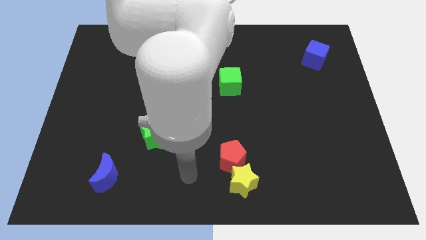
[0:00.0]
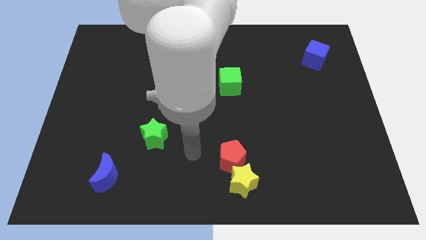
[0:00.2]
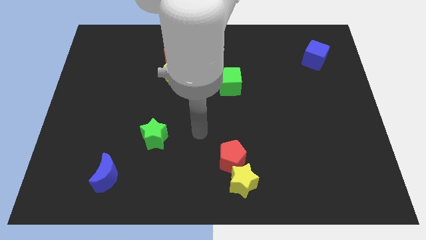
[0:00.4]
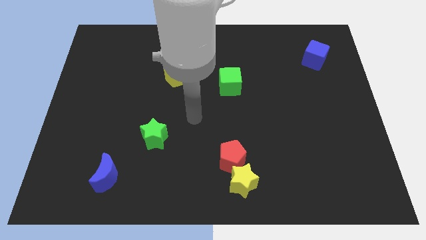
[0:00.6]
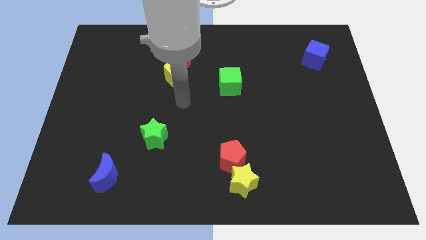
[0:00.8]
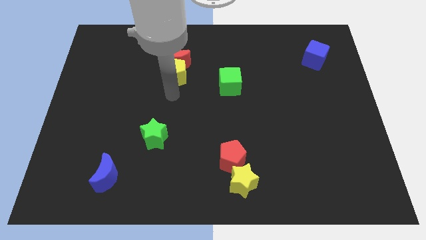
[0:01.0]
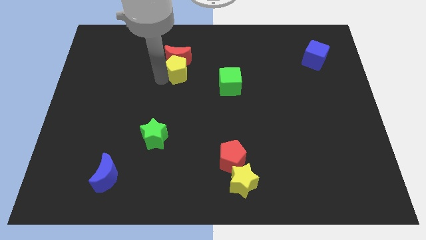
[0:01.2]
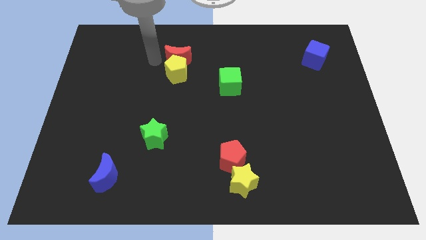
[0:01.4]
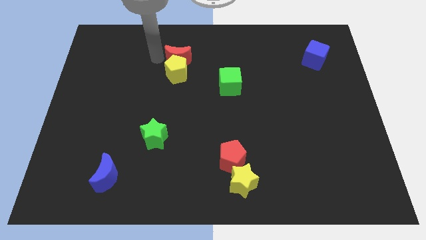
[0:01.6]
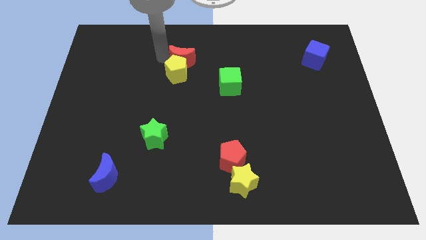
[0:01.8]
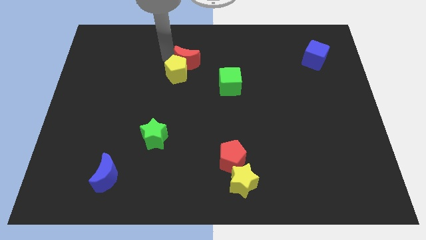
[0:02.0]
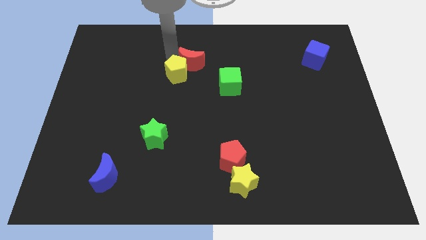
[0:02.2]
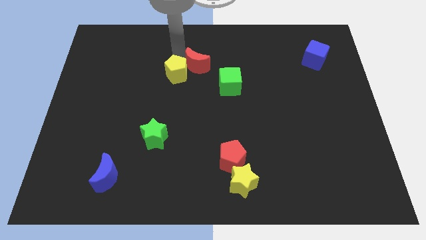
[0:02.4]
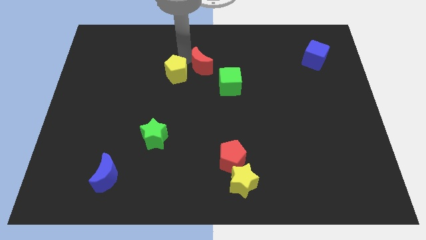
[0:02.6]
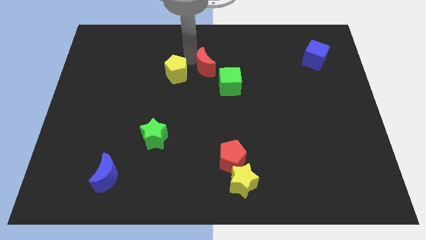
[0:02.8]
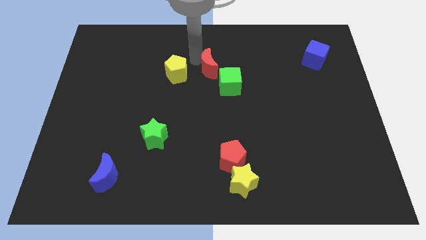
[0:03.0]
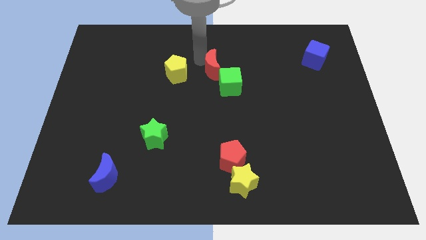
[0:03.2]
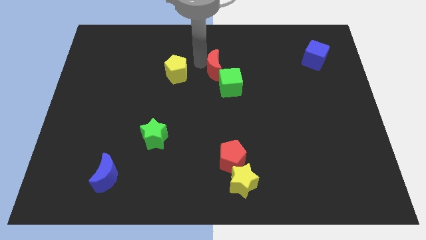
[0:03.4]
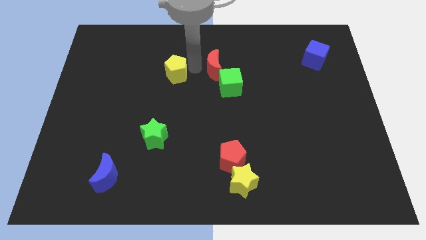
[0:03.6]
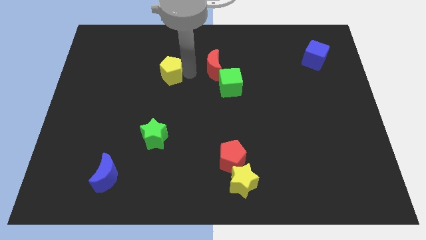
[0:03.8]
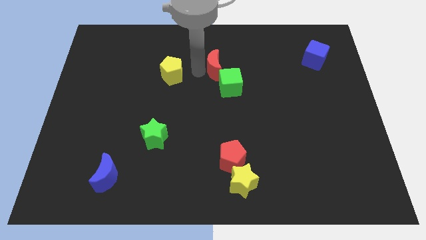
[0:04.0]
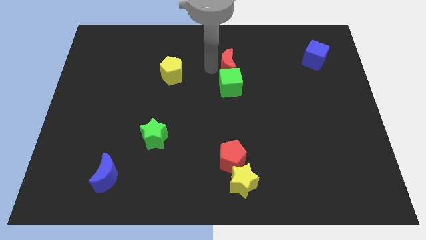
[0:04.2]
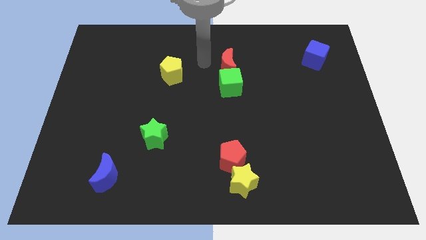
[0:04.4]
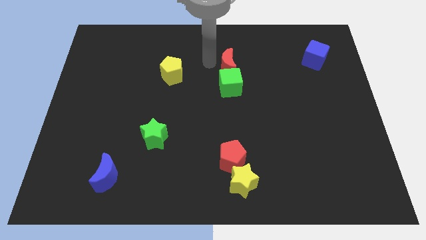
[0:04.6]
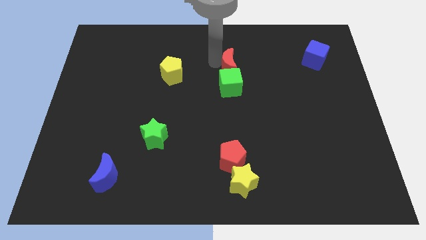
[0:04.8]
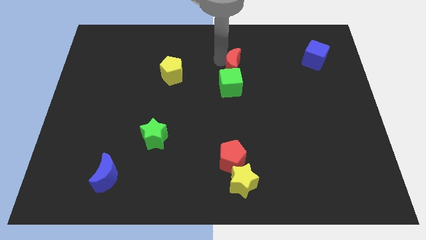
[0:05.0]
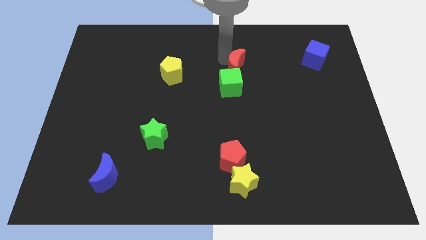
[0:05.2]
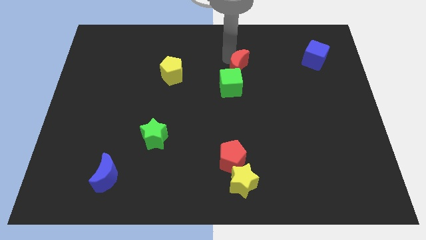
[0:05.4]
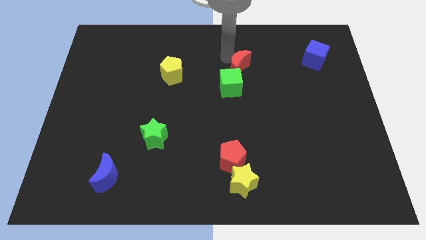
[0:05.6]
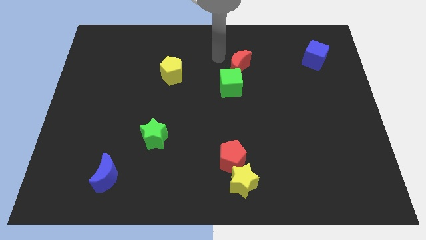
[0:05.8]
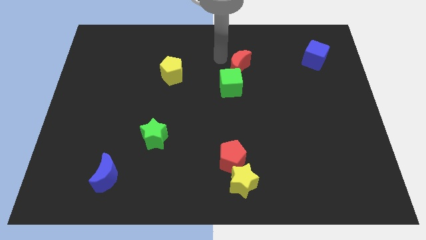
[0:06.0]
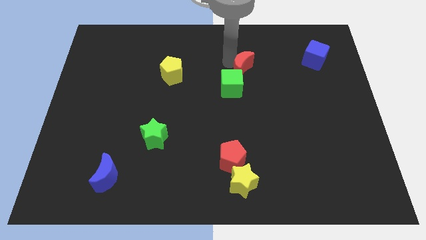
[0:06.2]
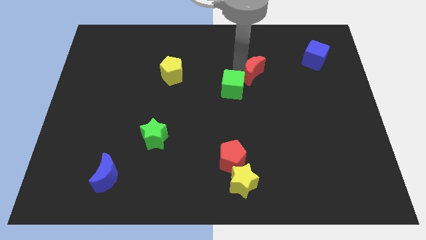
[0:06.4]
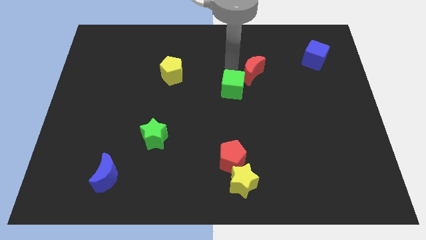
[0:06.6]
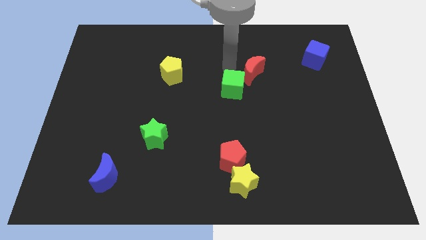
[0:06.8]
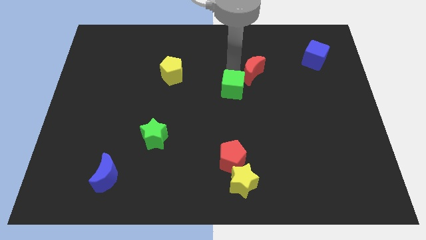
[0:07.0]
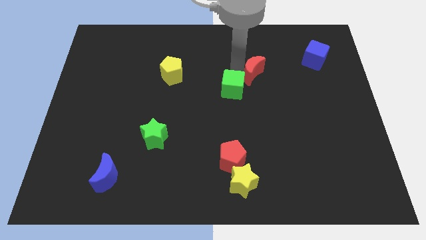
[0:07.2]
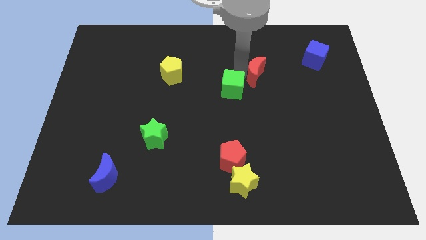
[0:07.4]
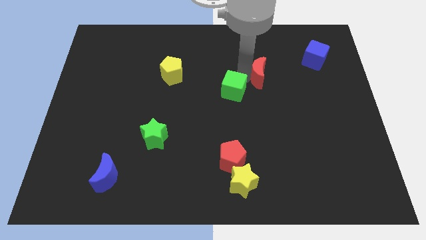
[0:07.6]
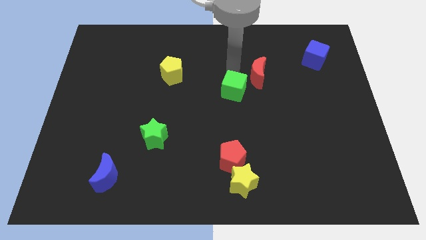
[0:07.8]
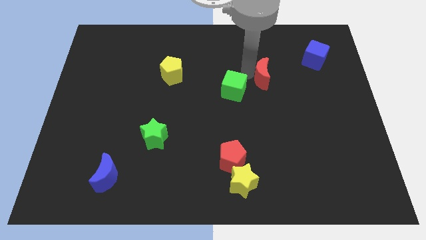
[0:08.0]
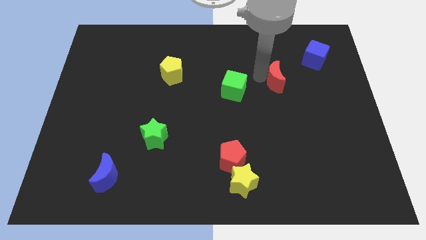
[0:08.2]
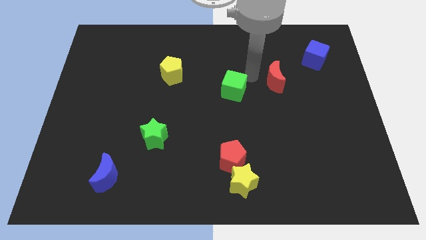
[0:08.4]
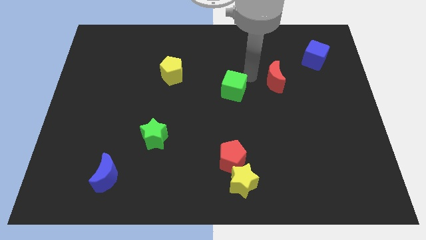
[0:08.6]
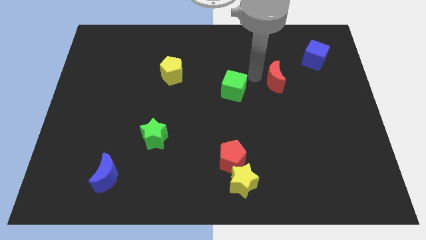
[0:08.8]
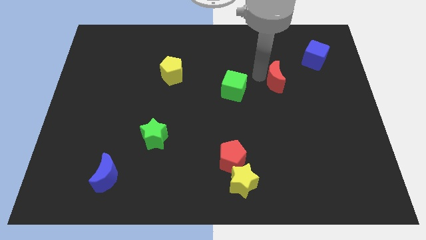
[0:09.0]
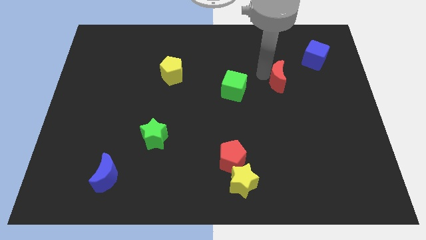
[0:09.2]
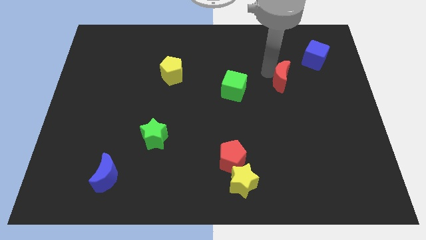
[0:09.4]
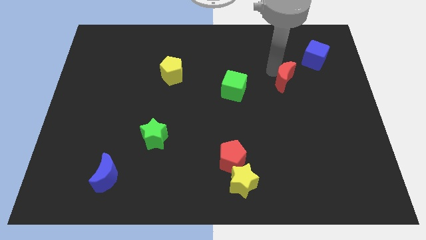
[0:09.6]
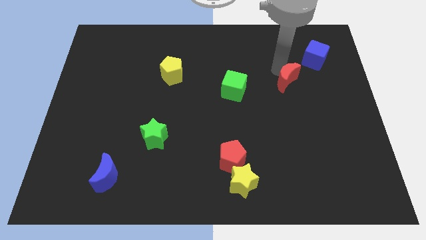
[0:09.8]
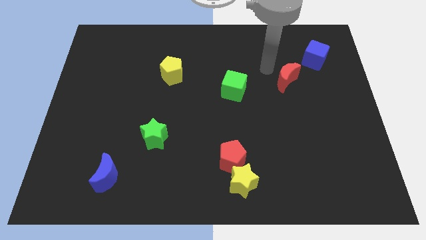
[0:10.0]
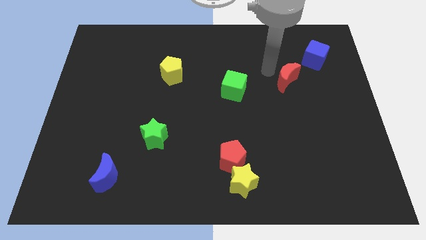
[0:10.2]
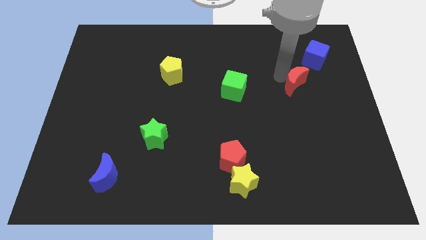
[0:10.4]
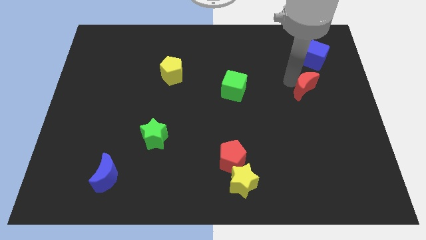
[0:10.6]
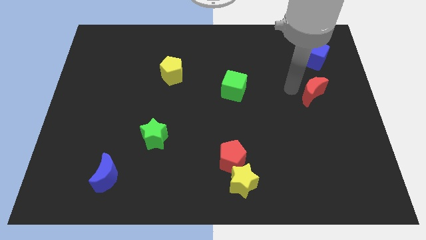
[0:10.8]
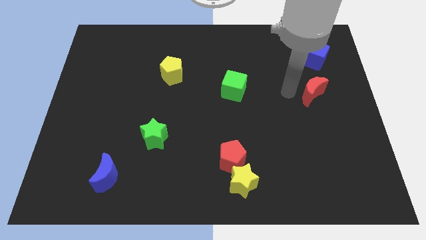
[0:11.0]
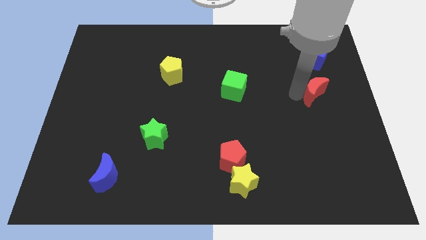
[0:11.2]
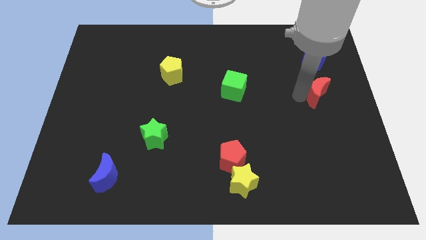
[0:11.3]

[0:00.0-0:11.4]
put the red moon to the right side of the board

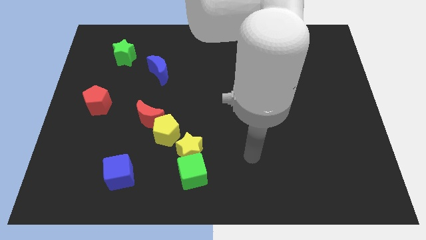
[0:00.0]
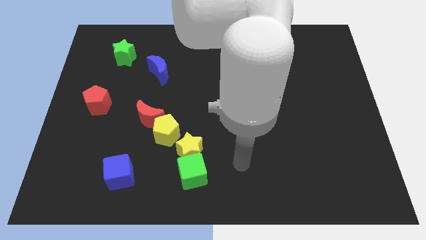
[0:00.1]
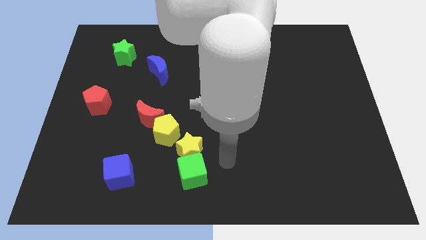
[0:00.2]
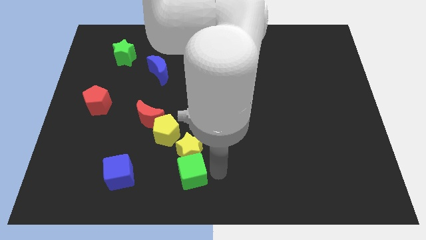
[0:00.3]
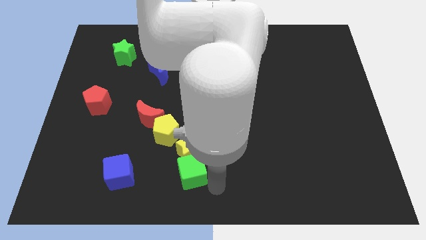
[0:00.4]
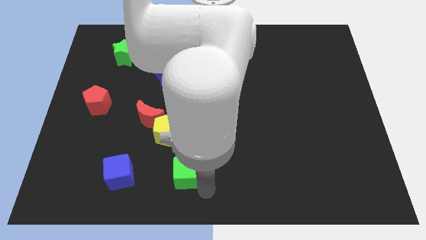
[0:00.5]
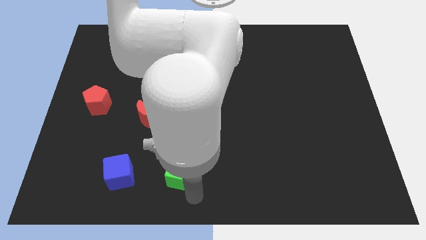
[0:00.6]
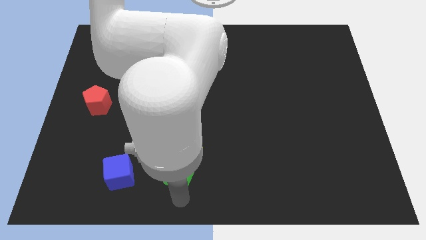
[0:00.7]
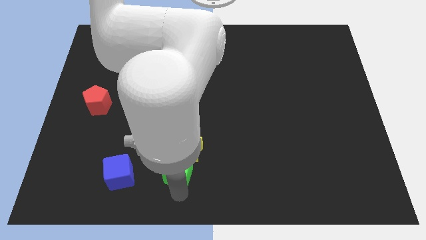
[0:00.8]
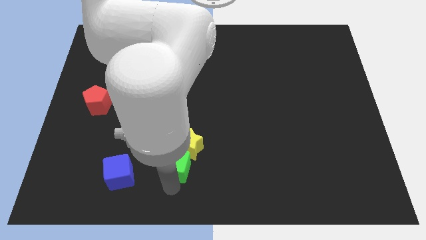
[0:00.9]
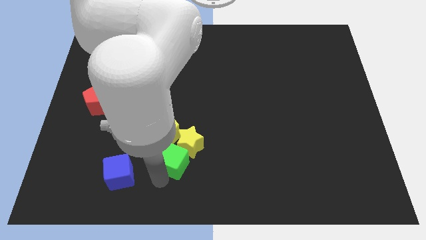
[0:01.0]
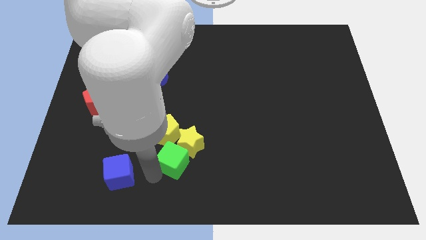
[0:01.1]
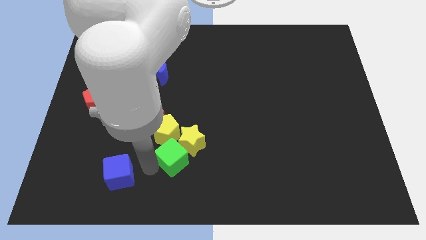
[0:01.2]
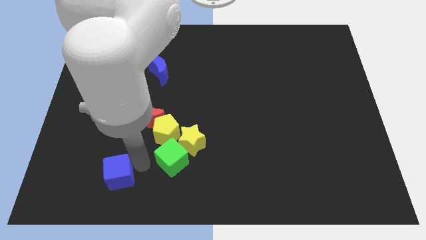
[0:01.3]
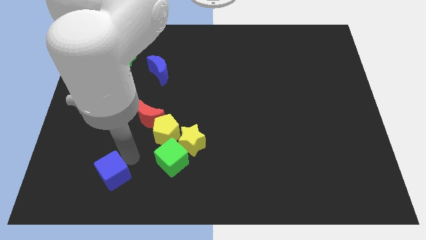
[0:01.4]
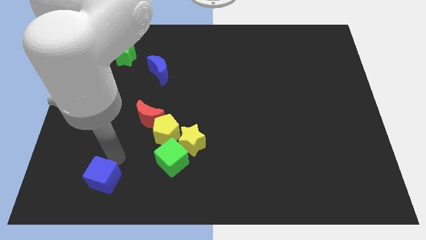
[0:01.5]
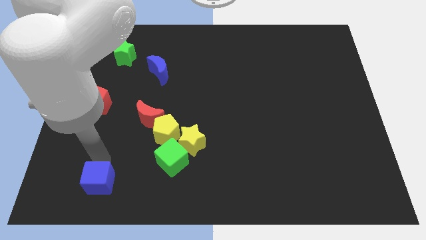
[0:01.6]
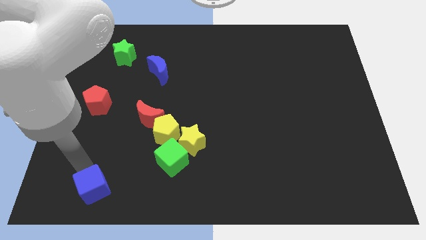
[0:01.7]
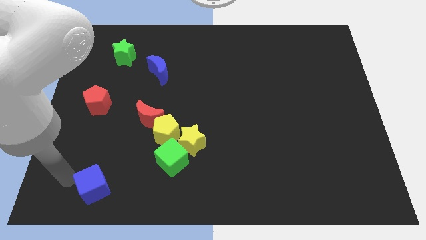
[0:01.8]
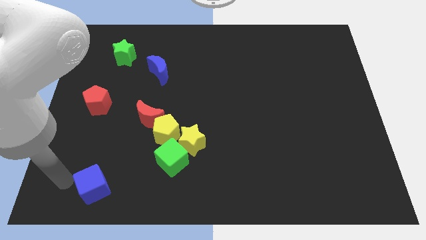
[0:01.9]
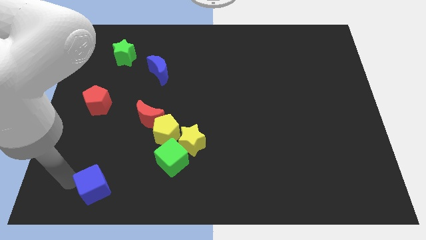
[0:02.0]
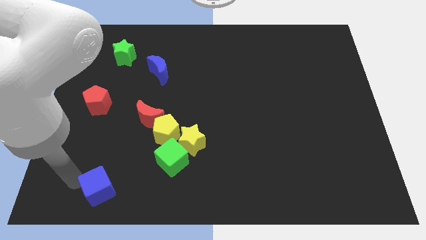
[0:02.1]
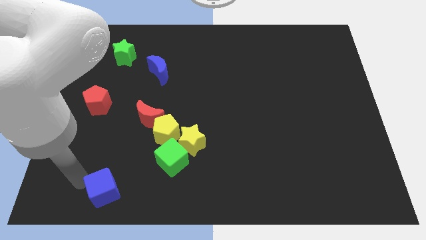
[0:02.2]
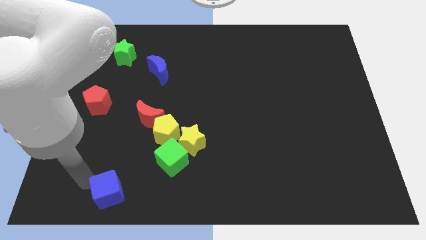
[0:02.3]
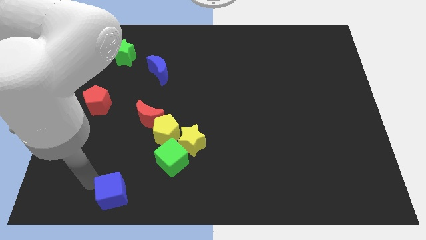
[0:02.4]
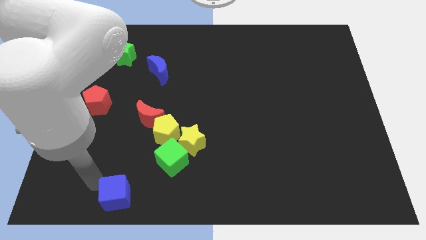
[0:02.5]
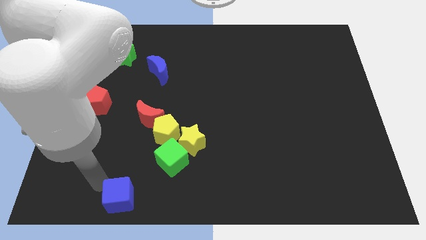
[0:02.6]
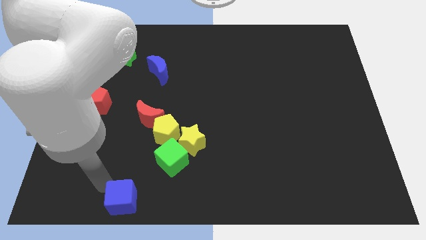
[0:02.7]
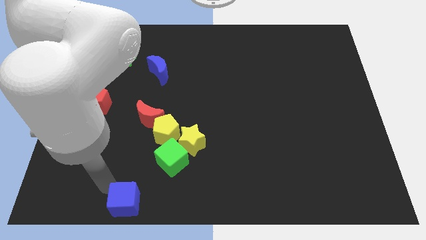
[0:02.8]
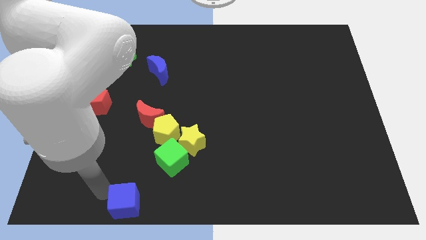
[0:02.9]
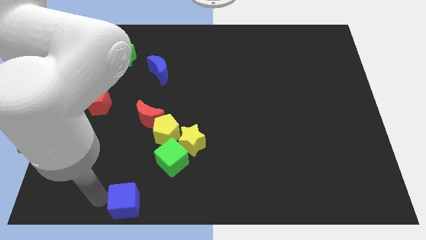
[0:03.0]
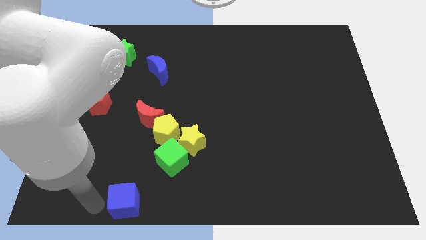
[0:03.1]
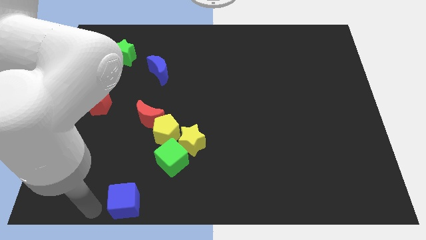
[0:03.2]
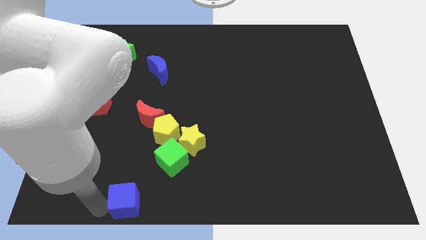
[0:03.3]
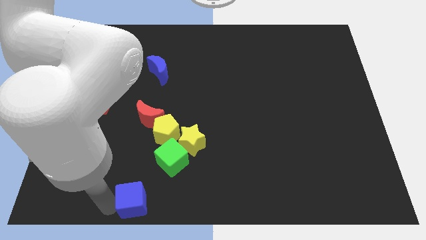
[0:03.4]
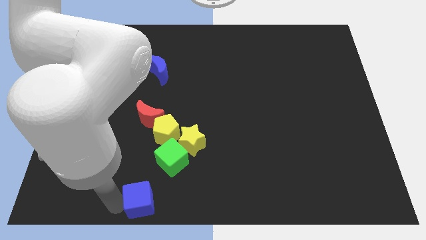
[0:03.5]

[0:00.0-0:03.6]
put the blue cube to the bottom
